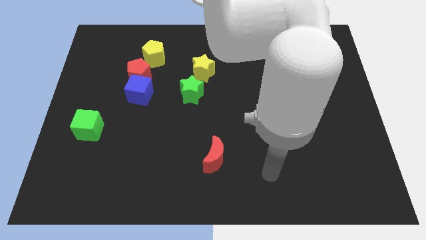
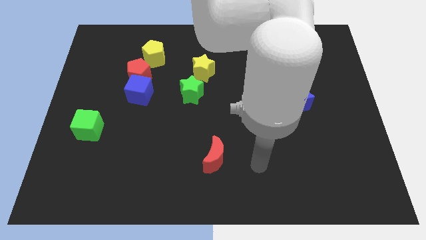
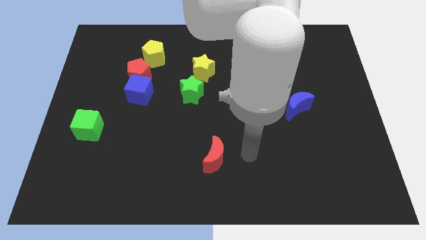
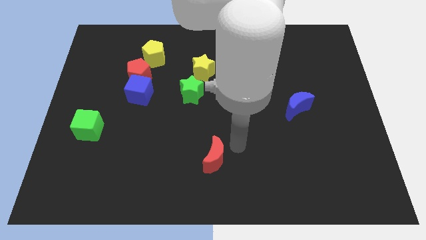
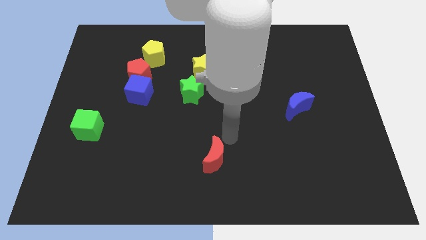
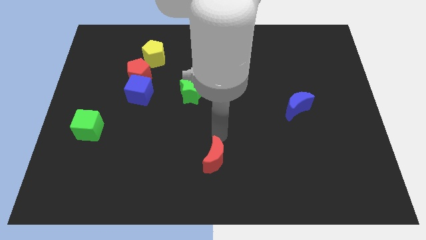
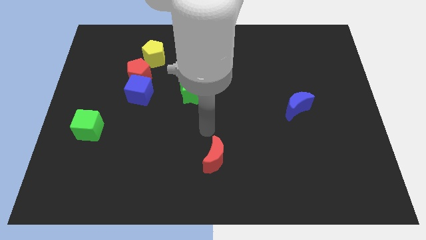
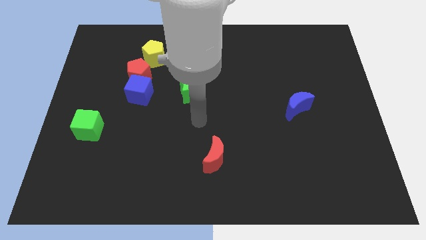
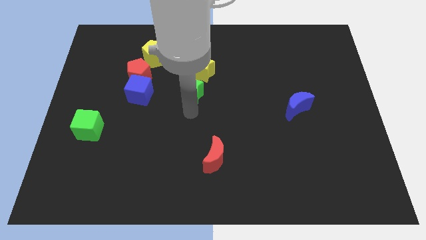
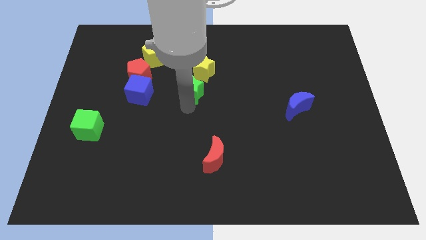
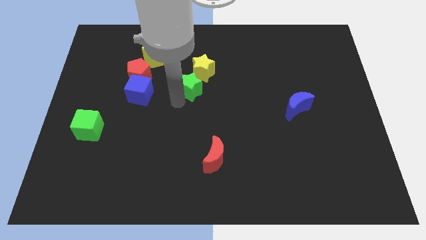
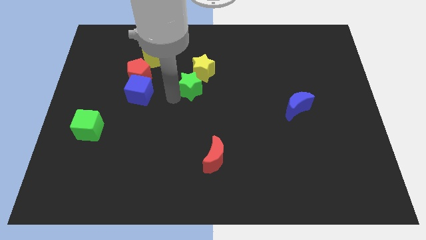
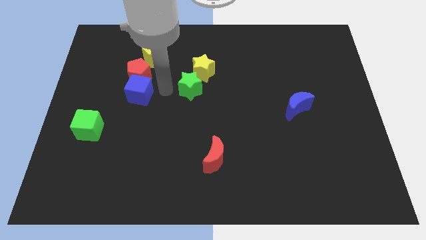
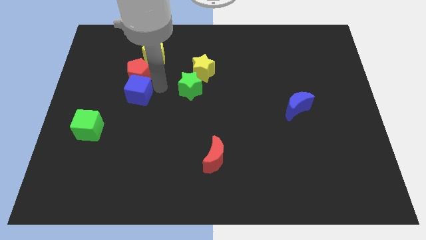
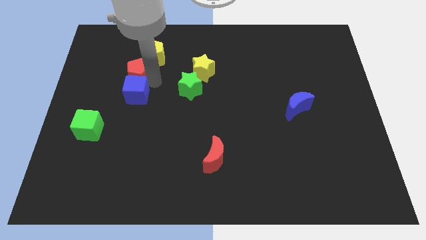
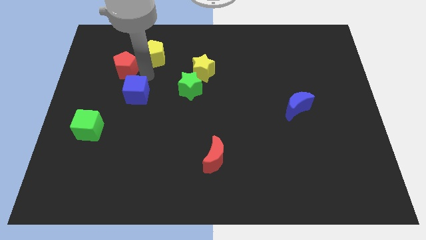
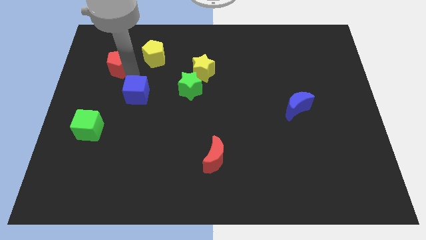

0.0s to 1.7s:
move the blue cube away from the red pentagon

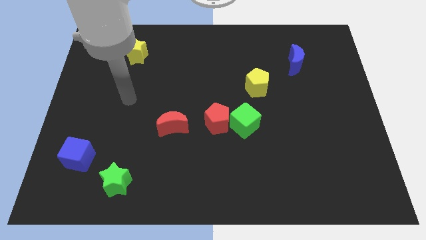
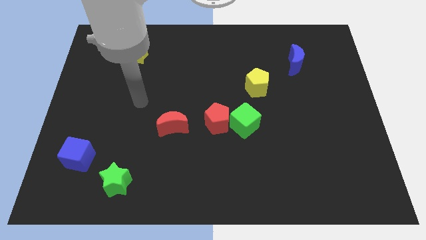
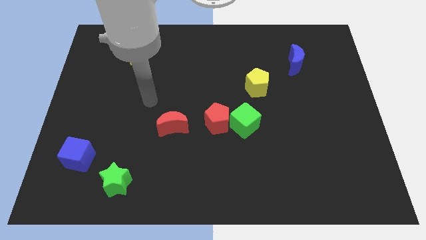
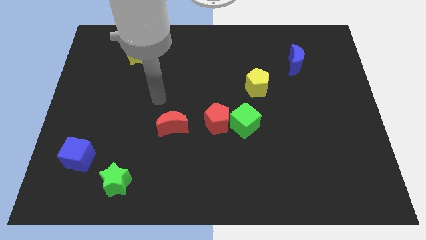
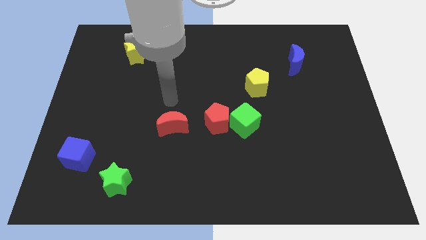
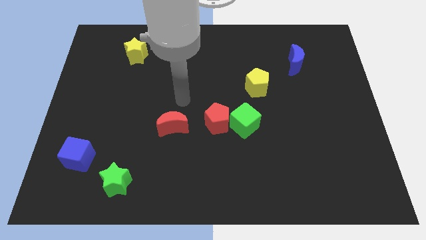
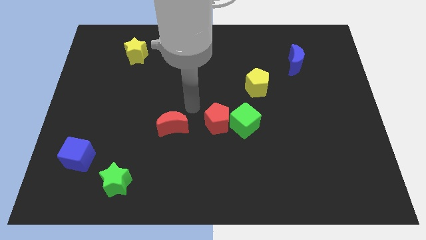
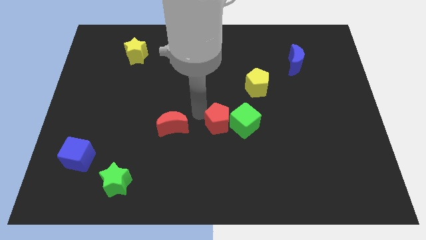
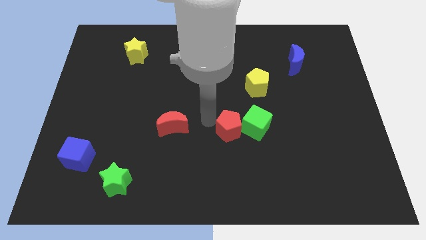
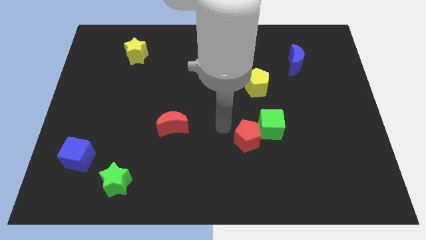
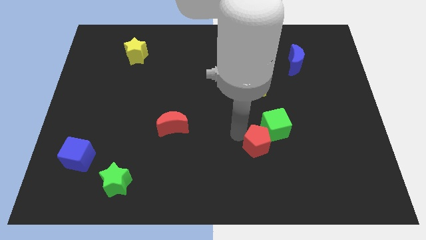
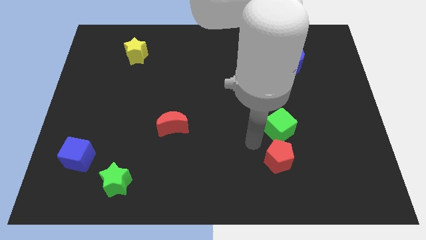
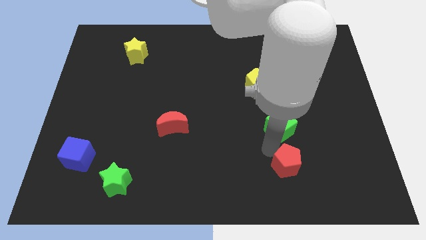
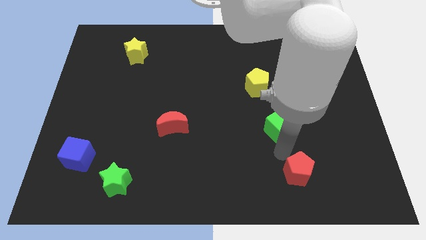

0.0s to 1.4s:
separate the green cube from the red pentagon

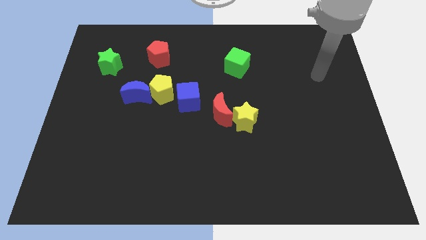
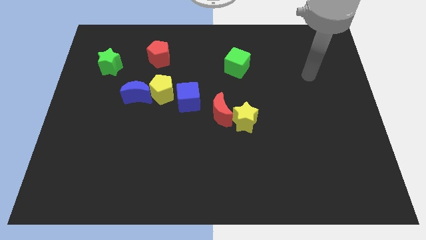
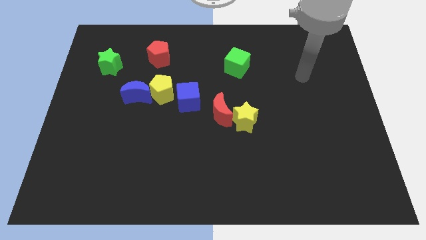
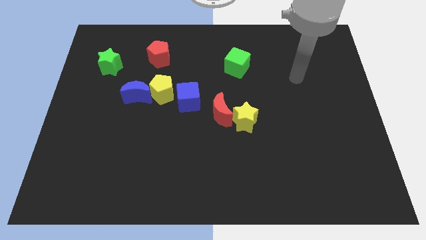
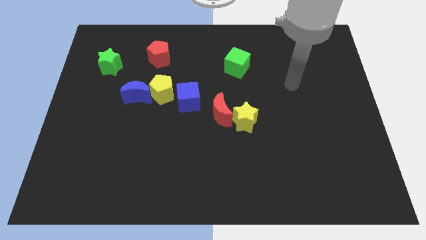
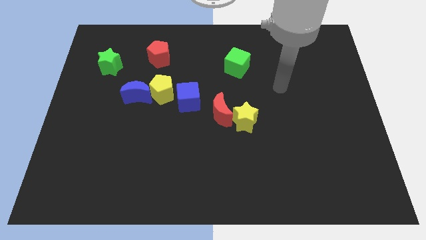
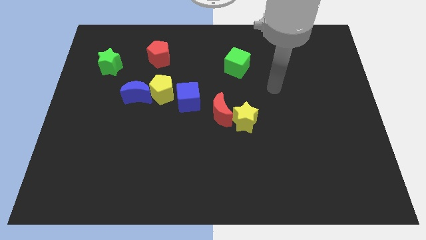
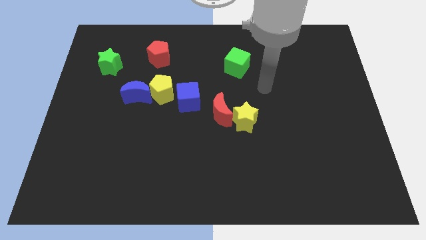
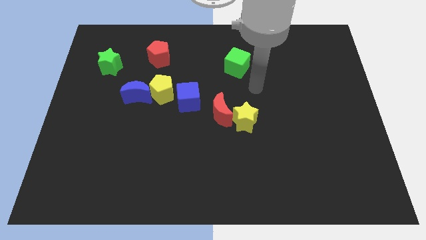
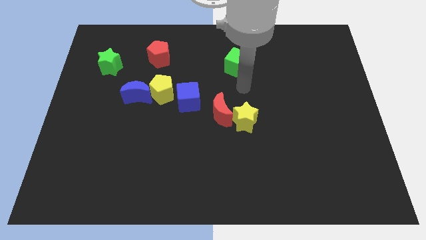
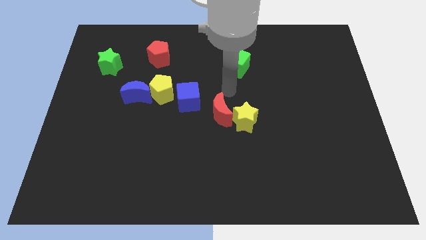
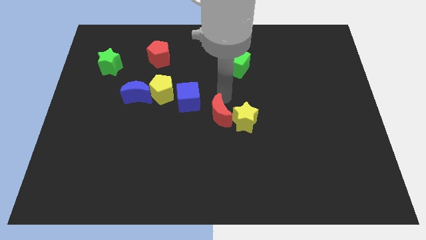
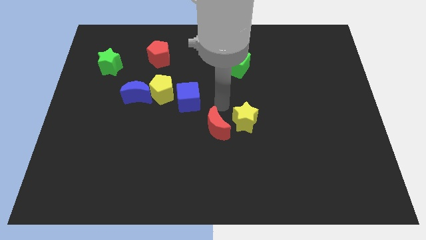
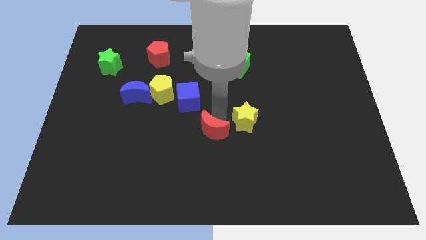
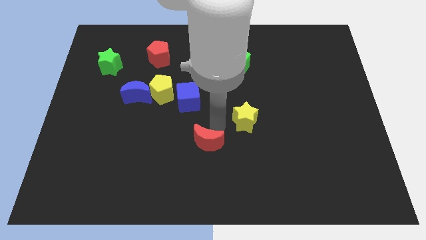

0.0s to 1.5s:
pull the yellow star apart from the red moon

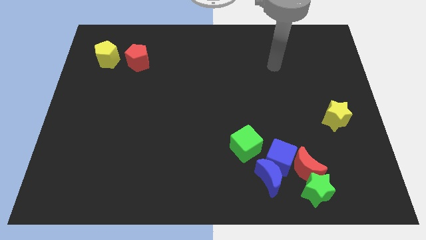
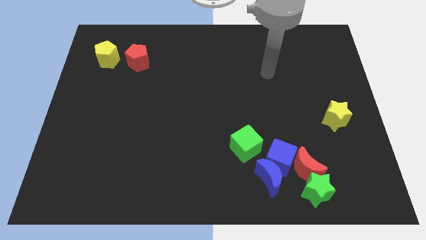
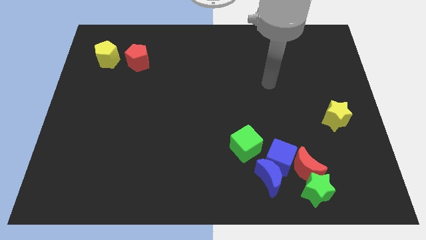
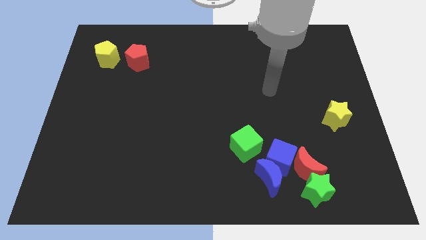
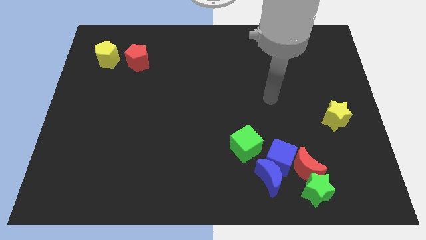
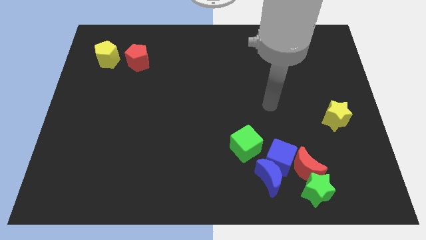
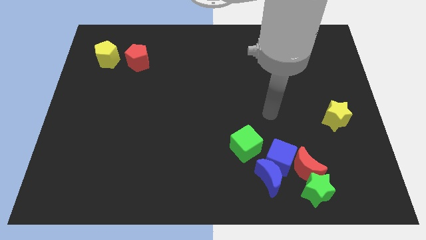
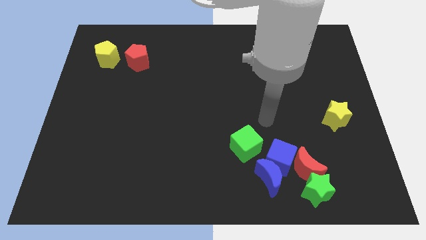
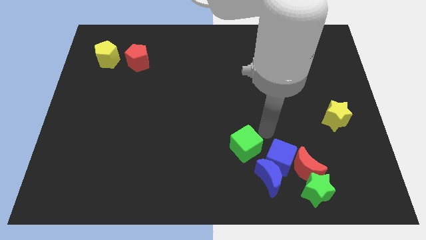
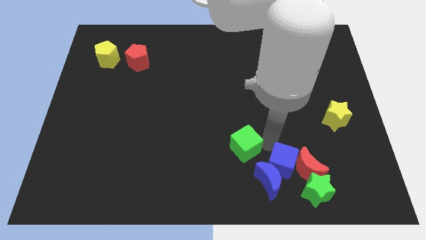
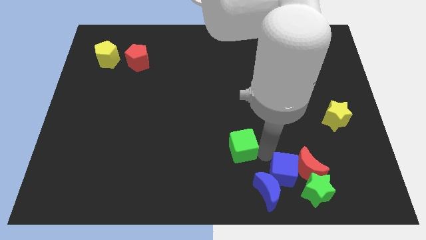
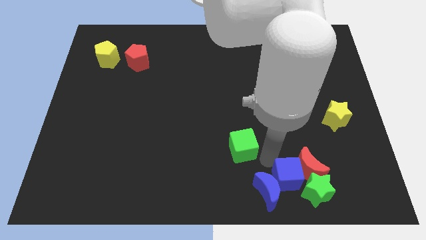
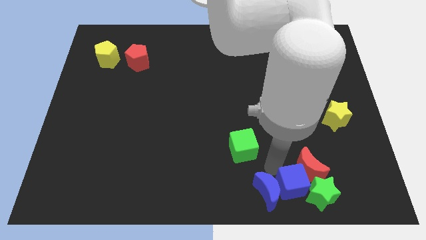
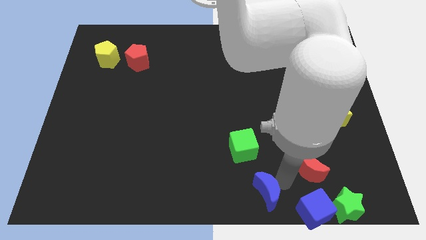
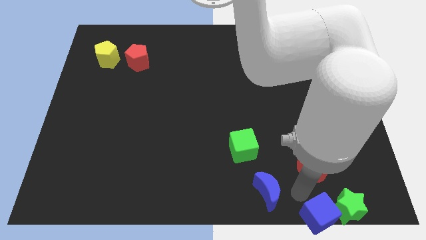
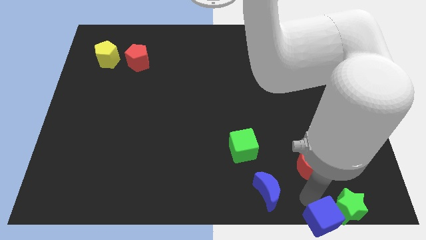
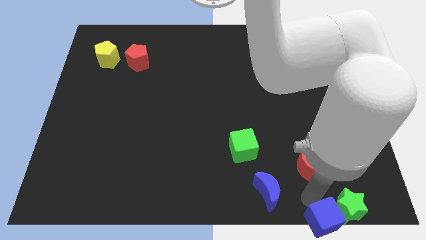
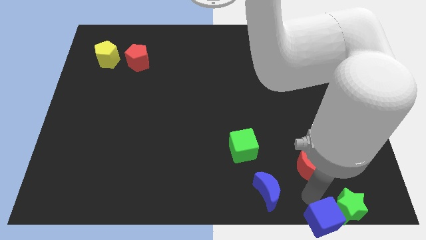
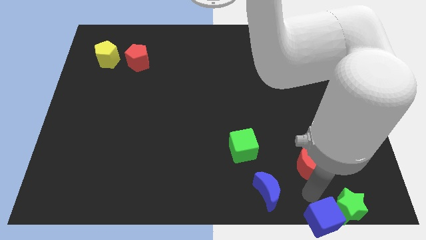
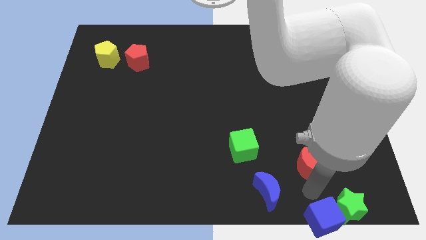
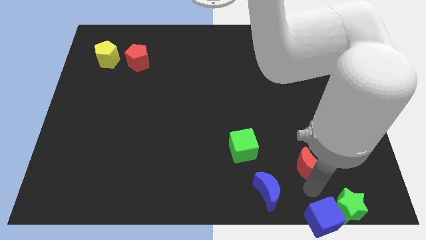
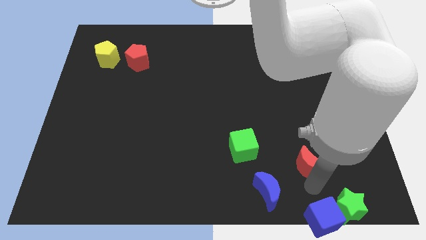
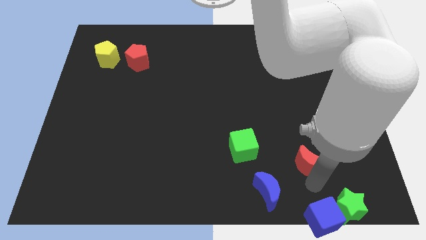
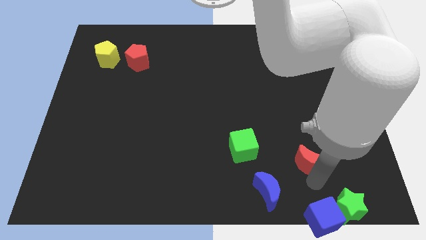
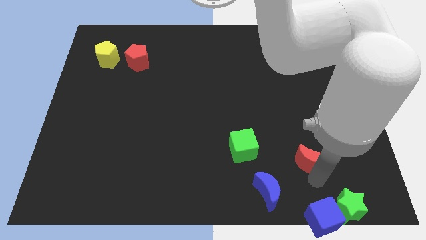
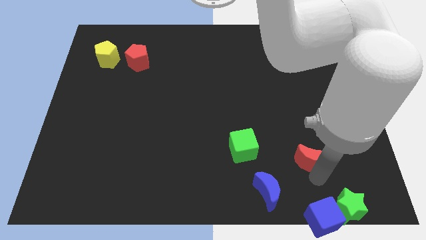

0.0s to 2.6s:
pull the red moon apart from the green star, blue cube, and blue moon

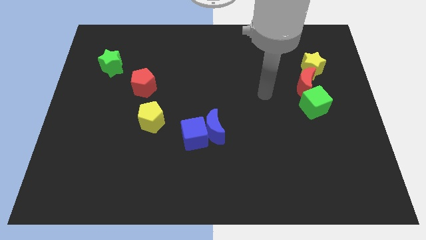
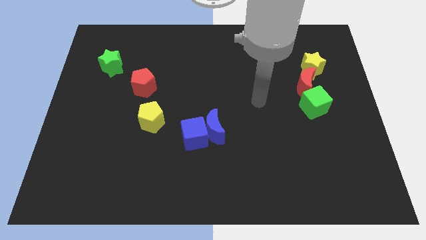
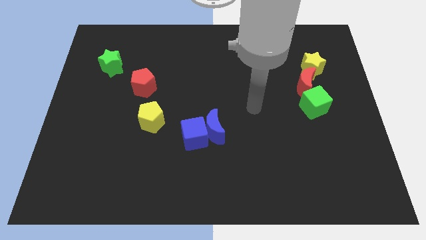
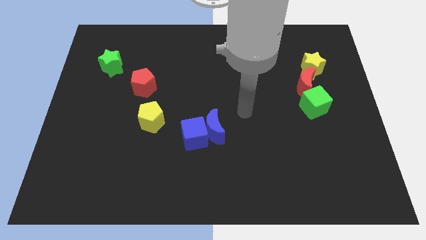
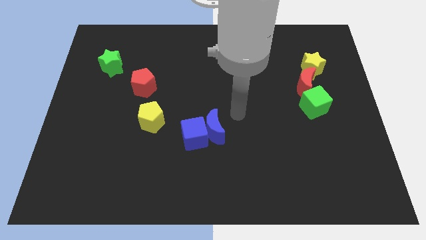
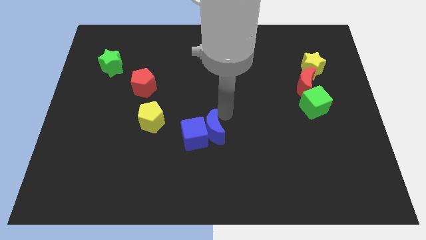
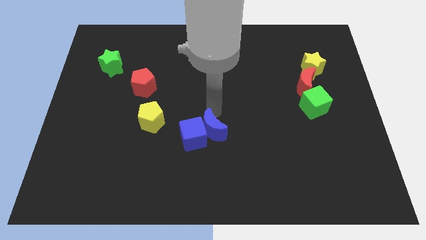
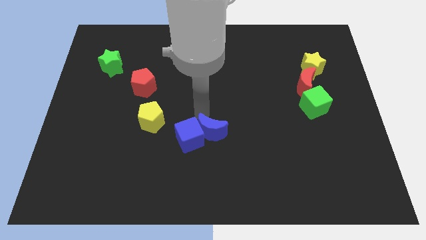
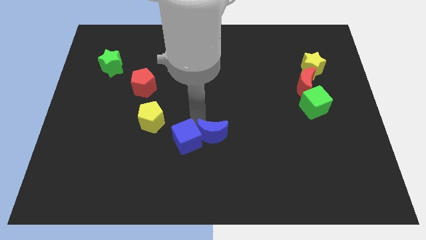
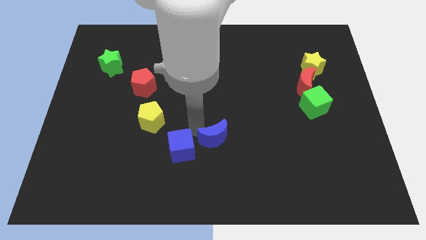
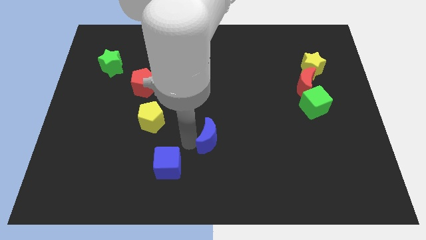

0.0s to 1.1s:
separate the blue moon from the blue cube

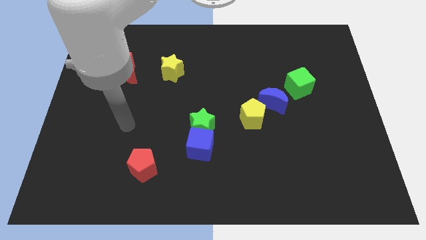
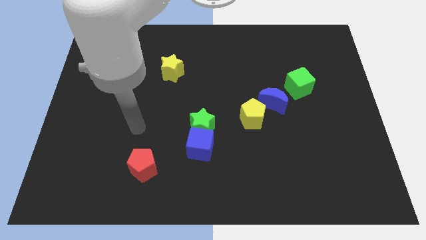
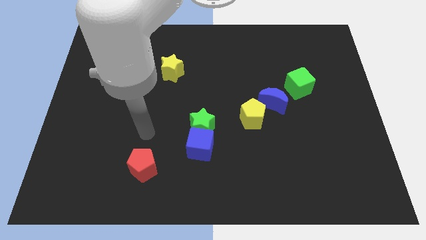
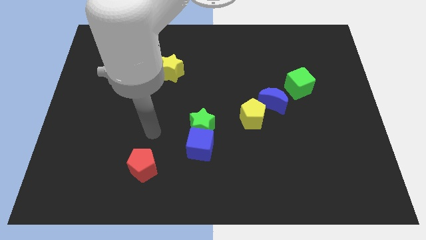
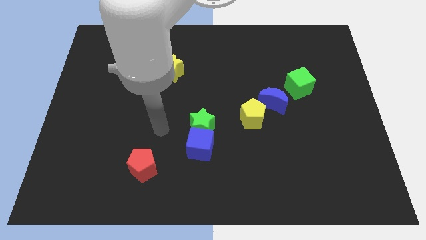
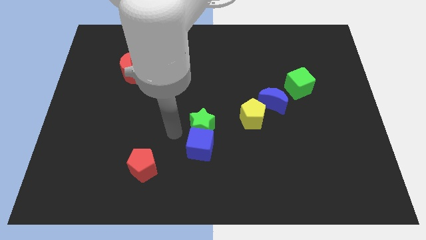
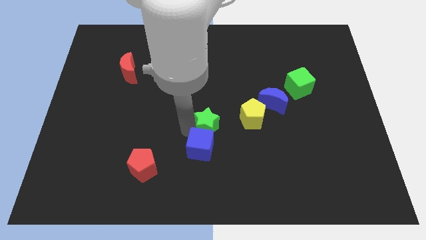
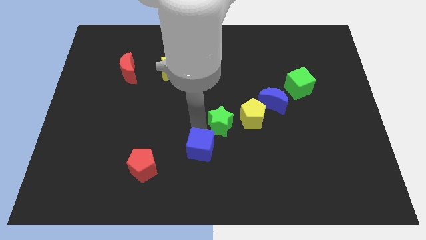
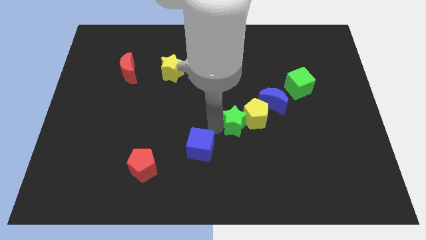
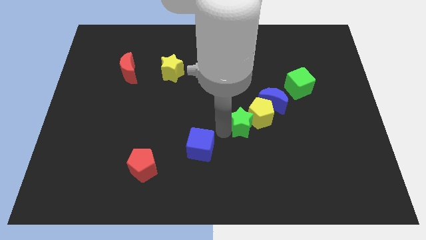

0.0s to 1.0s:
separate the blue cube from the green star

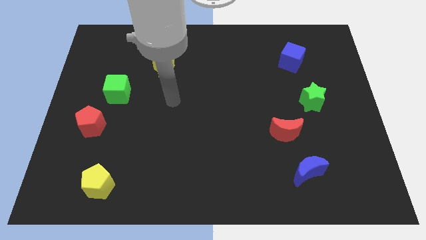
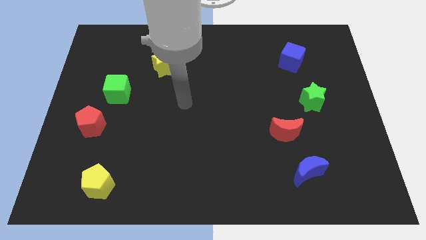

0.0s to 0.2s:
move the red moon away from the blue moon
